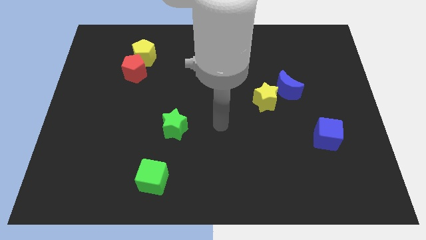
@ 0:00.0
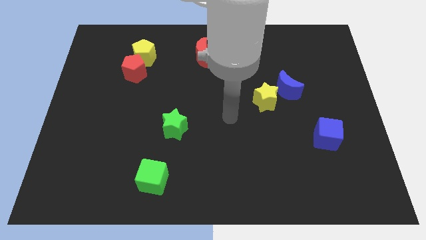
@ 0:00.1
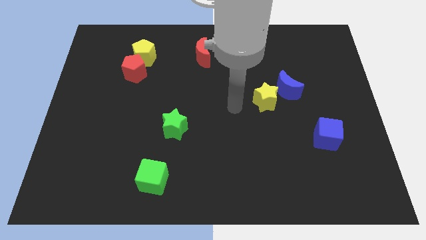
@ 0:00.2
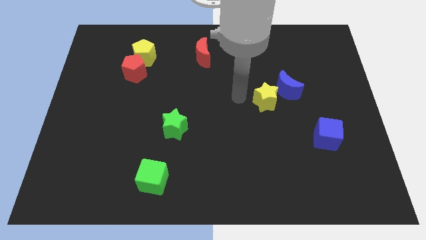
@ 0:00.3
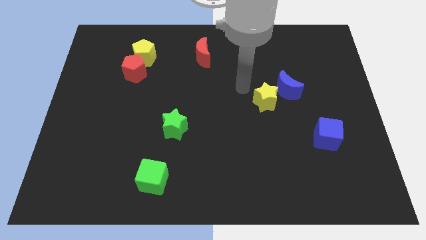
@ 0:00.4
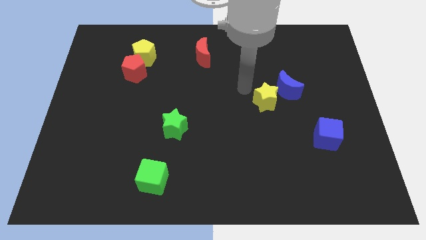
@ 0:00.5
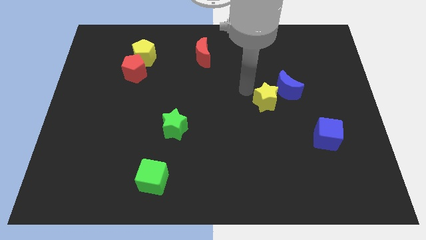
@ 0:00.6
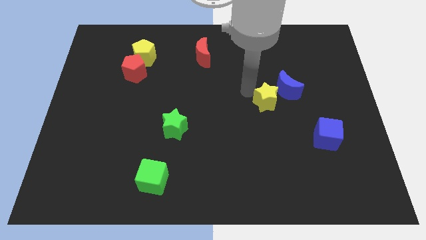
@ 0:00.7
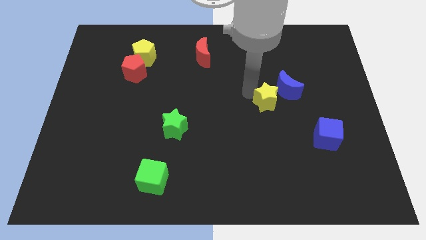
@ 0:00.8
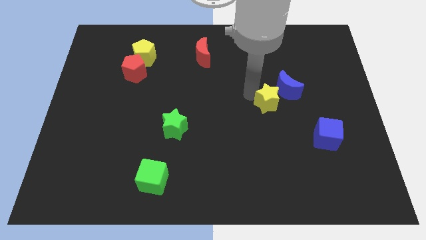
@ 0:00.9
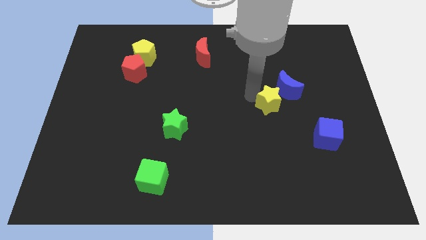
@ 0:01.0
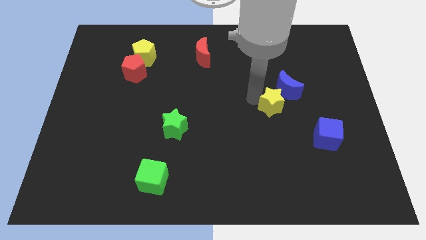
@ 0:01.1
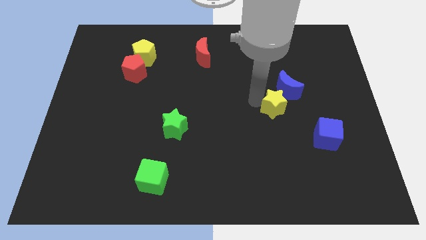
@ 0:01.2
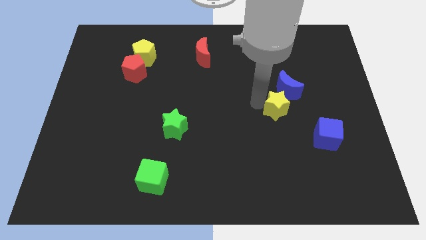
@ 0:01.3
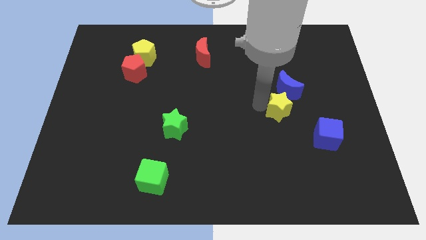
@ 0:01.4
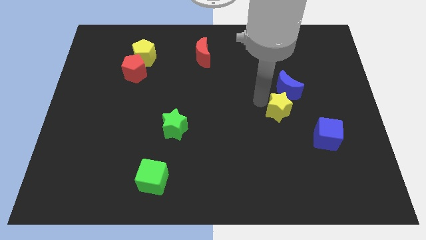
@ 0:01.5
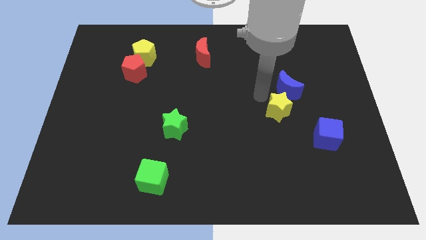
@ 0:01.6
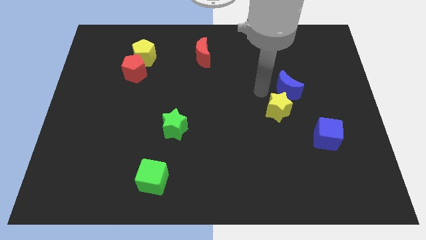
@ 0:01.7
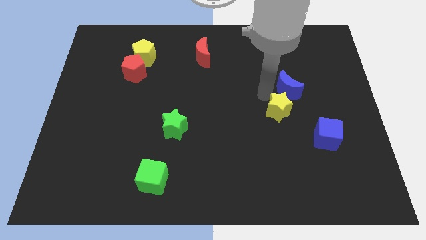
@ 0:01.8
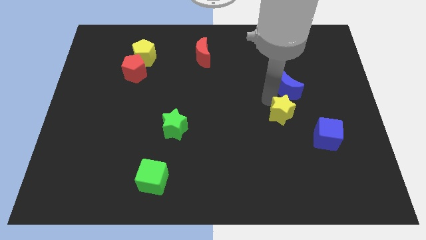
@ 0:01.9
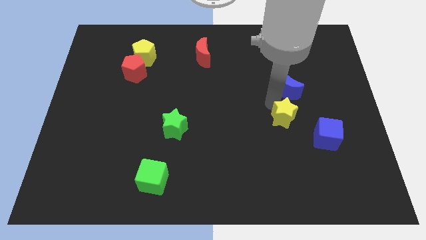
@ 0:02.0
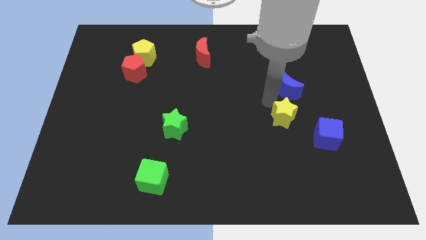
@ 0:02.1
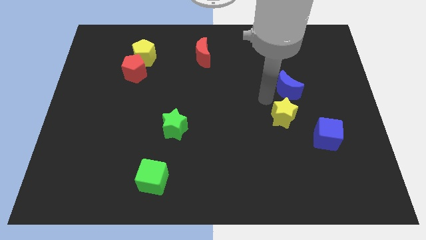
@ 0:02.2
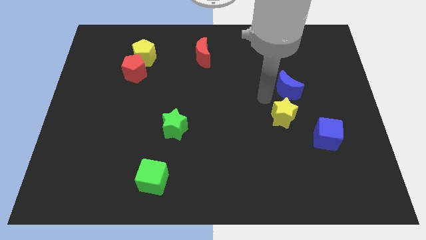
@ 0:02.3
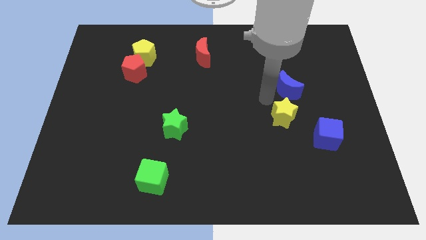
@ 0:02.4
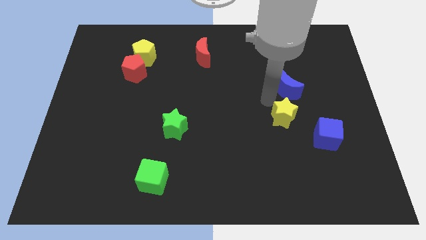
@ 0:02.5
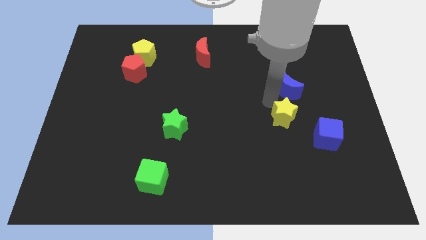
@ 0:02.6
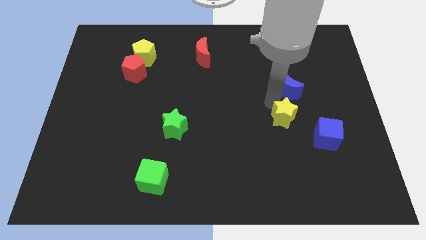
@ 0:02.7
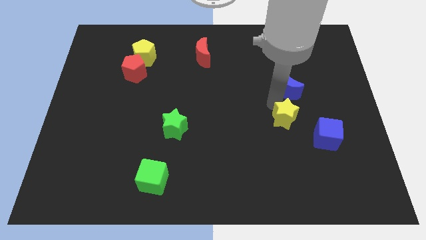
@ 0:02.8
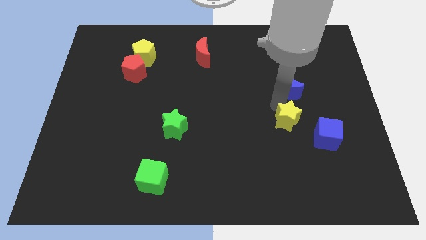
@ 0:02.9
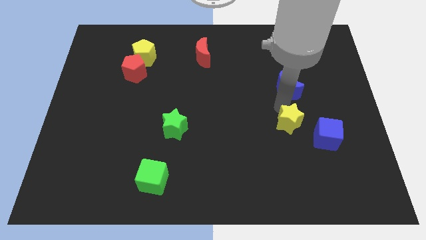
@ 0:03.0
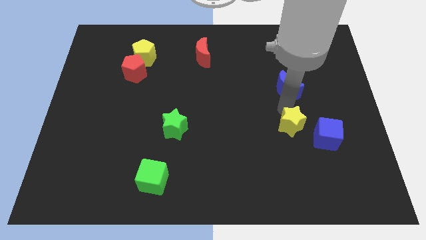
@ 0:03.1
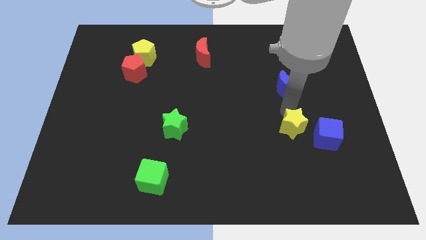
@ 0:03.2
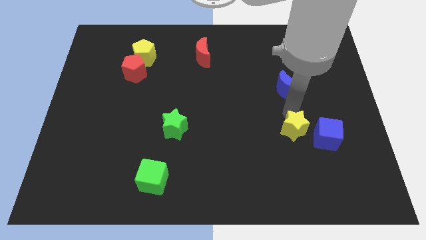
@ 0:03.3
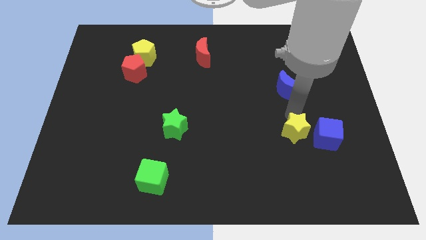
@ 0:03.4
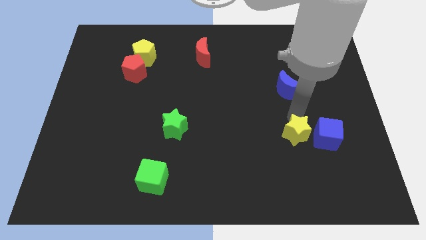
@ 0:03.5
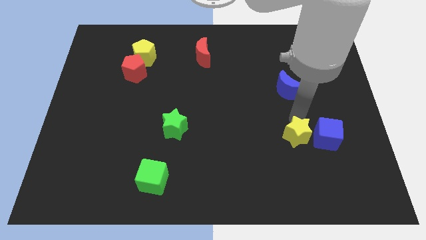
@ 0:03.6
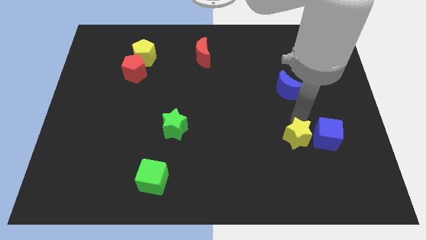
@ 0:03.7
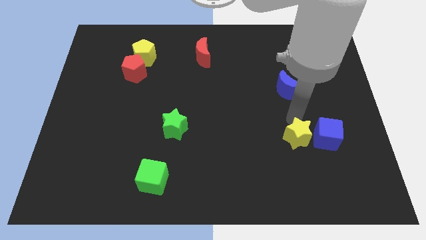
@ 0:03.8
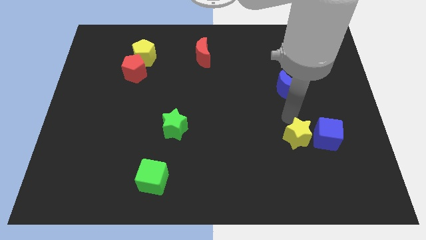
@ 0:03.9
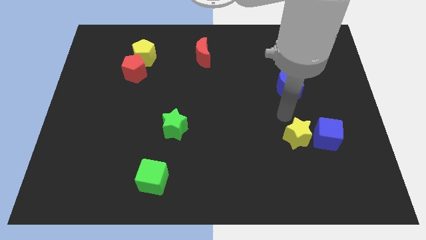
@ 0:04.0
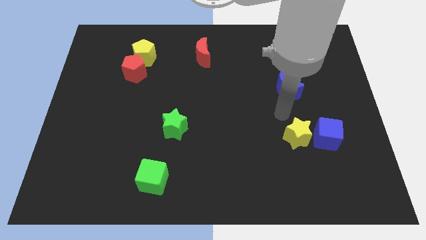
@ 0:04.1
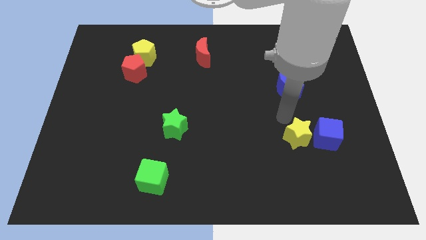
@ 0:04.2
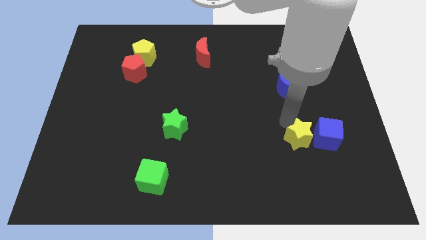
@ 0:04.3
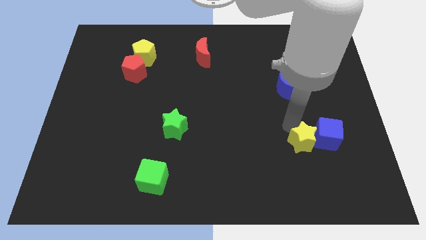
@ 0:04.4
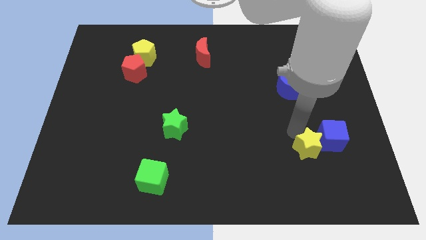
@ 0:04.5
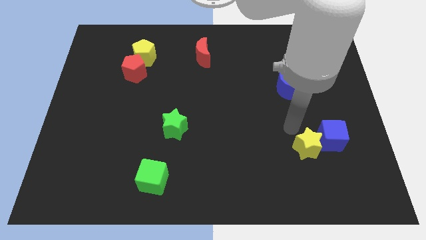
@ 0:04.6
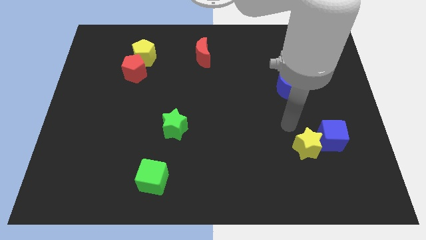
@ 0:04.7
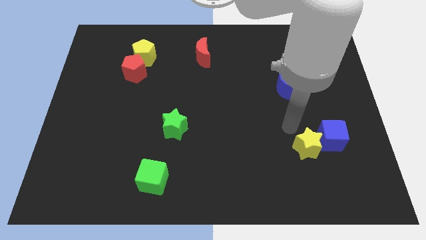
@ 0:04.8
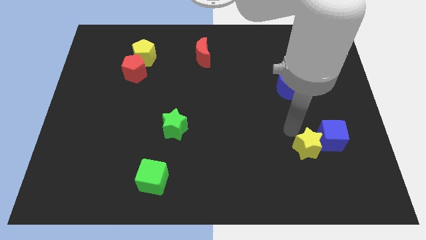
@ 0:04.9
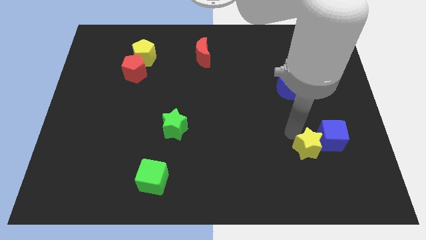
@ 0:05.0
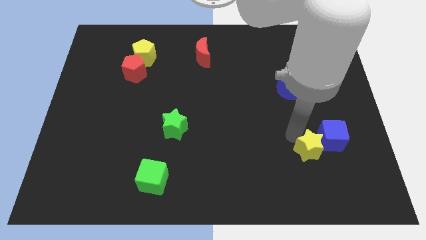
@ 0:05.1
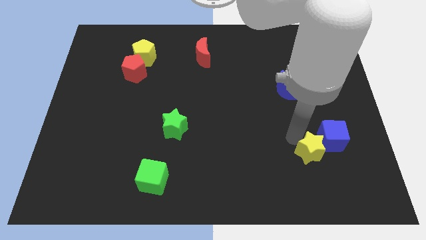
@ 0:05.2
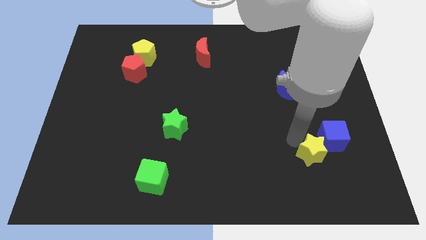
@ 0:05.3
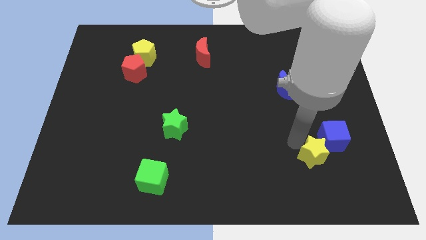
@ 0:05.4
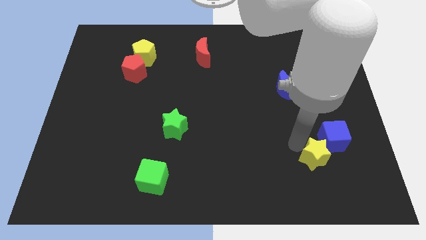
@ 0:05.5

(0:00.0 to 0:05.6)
push the yellow star below the blue cube
